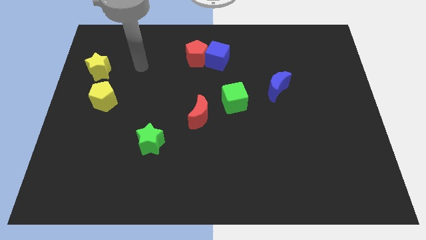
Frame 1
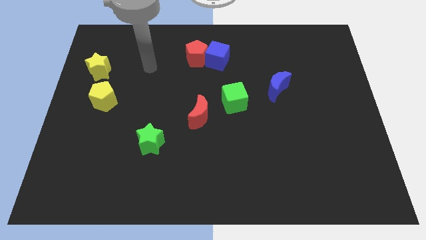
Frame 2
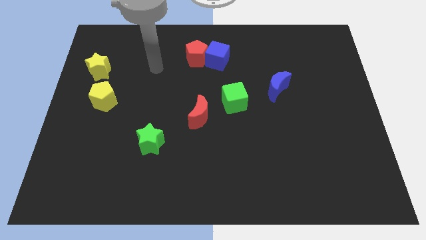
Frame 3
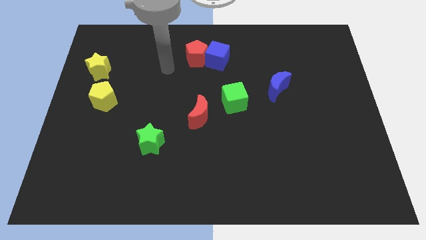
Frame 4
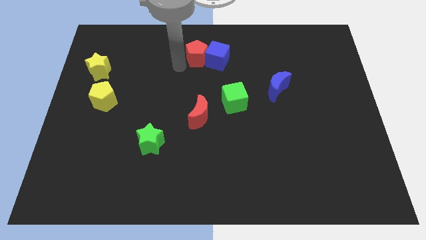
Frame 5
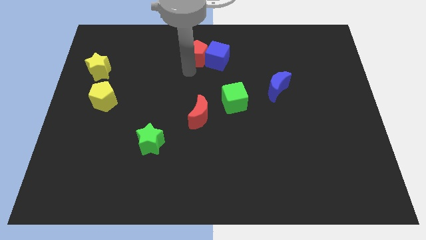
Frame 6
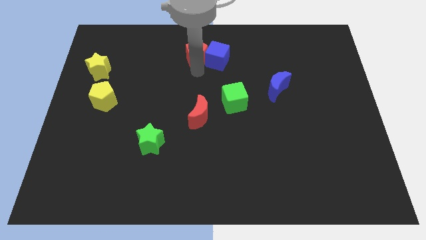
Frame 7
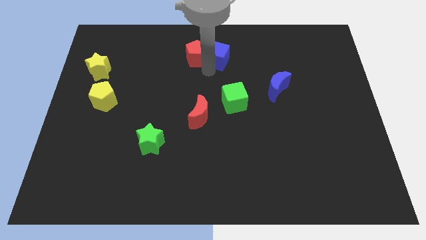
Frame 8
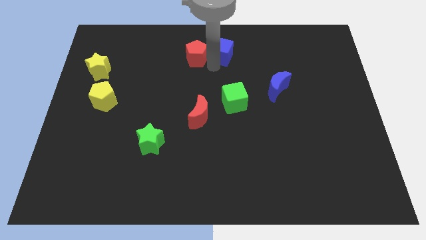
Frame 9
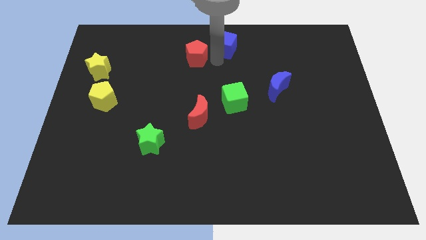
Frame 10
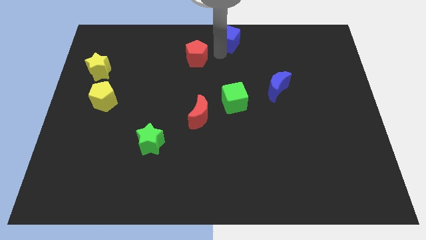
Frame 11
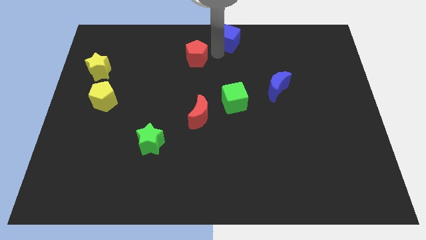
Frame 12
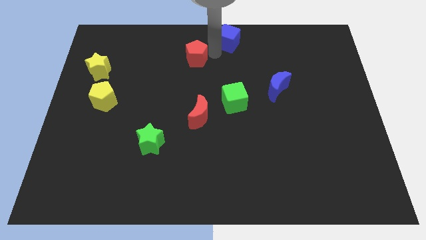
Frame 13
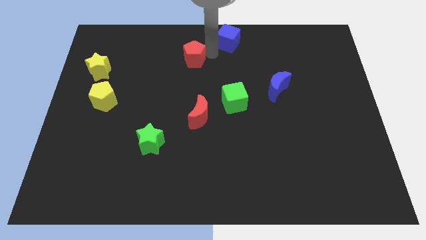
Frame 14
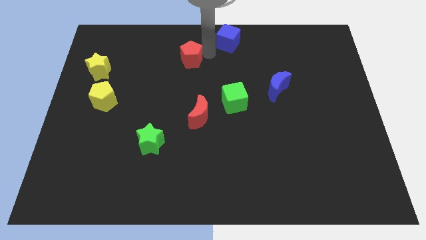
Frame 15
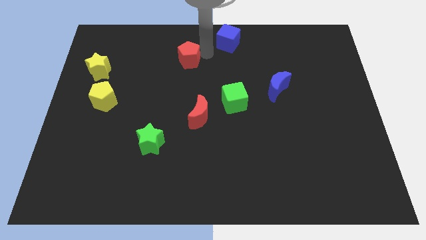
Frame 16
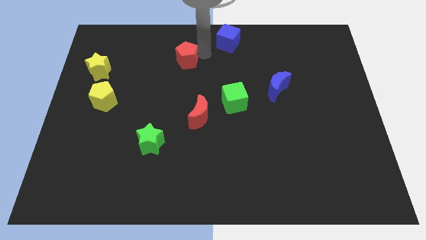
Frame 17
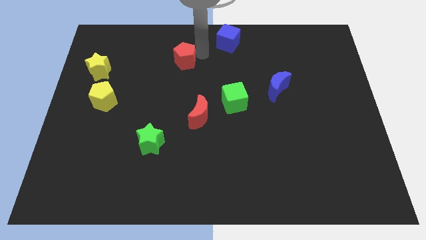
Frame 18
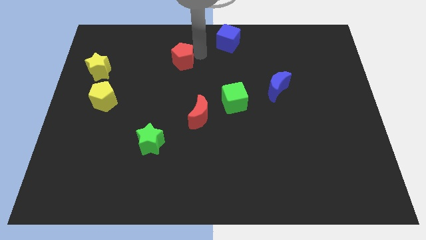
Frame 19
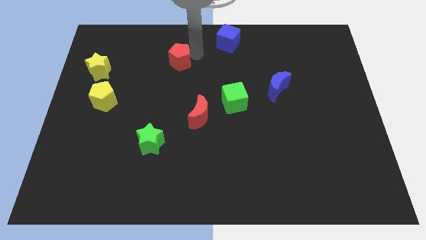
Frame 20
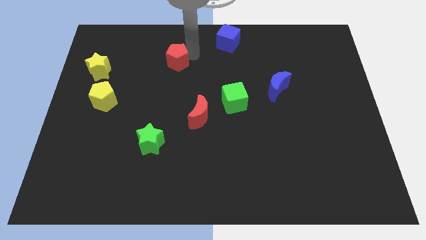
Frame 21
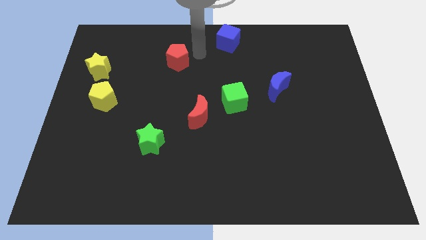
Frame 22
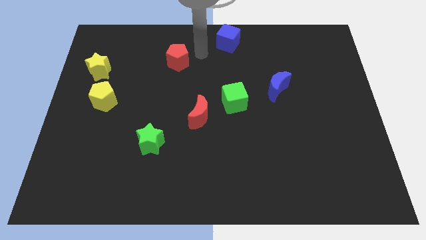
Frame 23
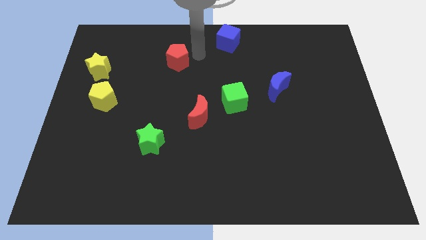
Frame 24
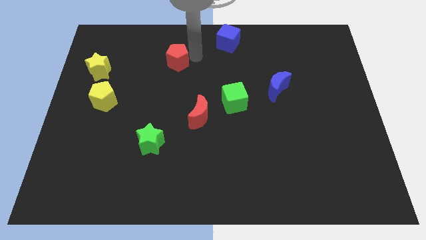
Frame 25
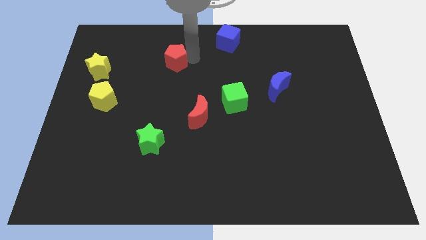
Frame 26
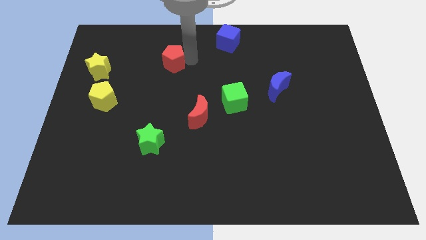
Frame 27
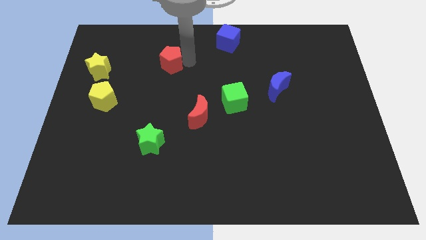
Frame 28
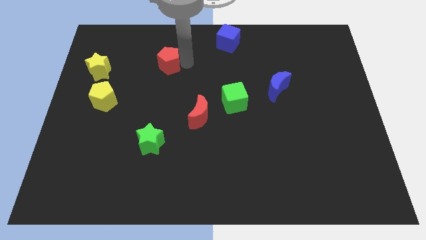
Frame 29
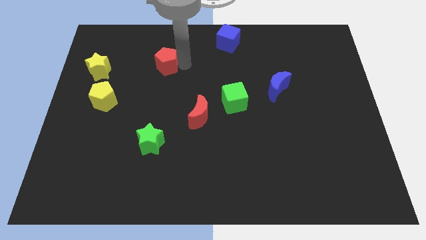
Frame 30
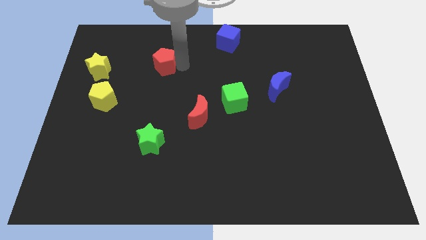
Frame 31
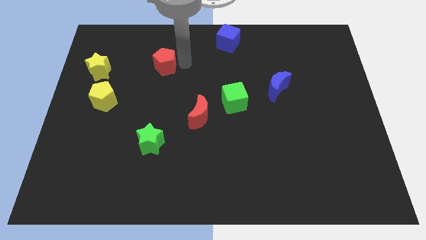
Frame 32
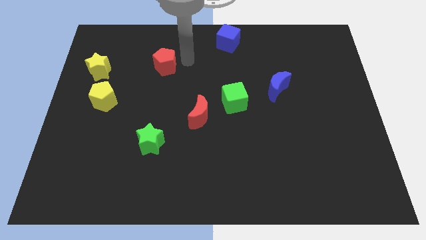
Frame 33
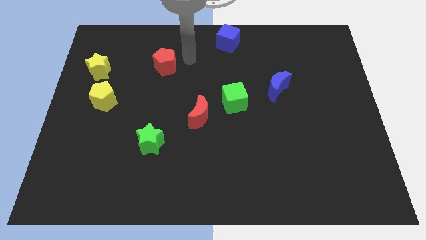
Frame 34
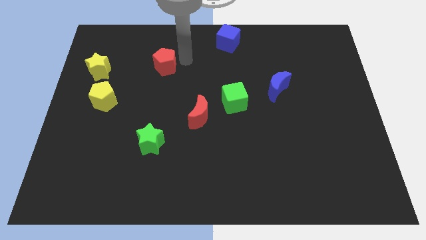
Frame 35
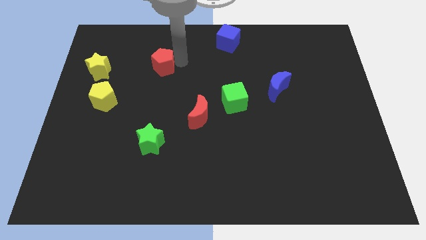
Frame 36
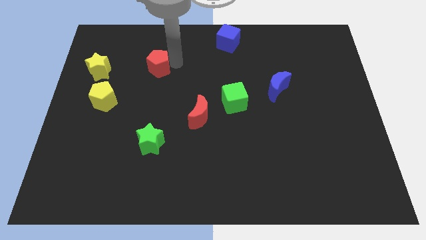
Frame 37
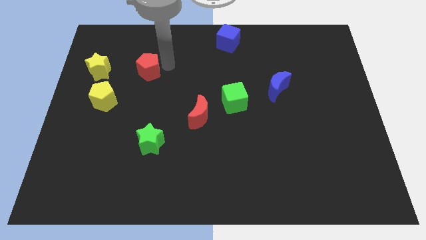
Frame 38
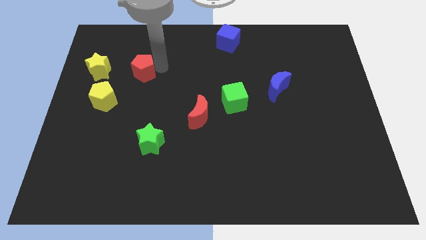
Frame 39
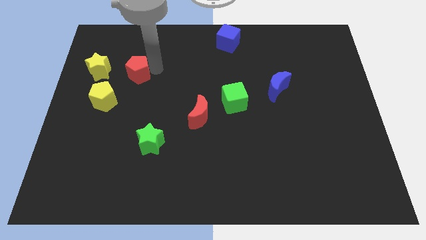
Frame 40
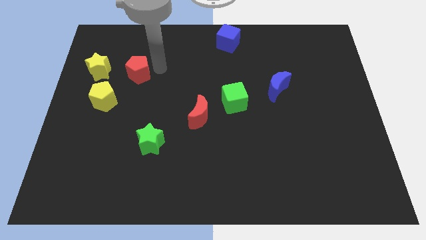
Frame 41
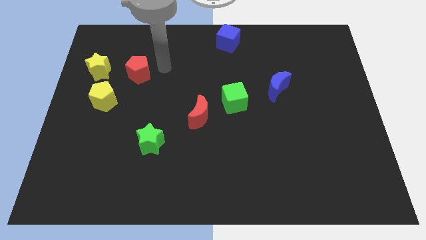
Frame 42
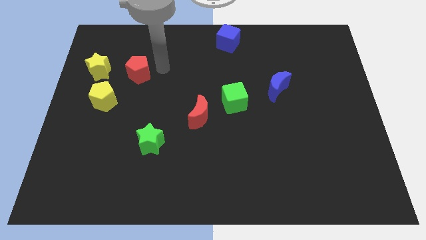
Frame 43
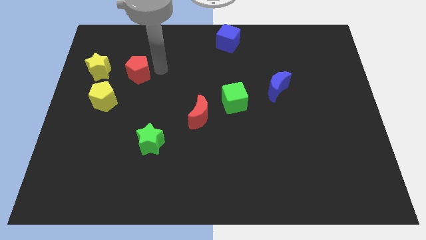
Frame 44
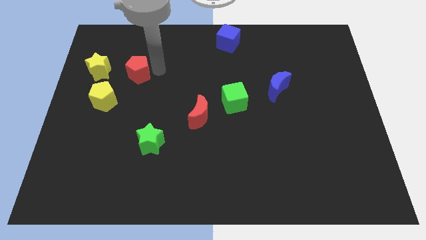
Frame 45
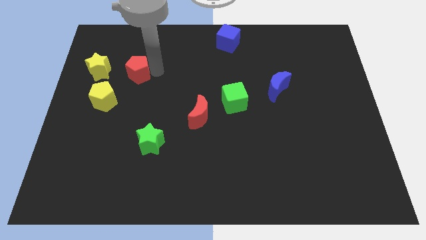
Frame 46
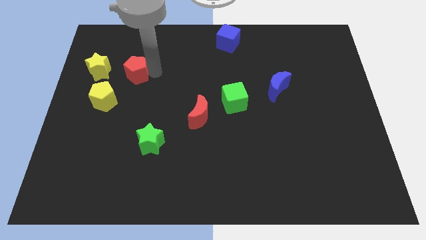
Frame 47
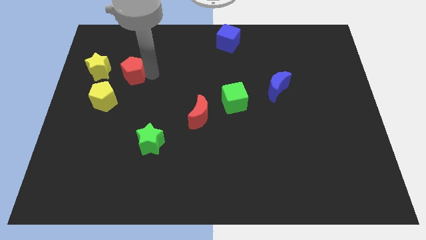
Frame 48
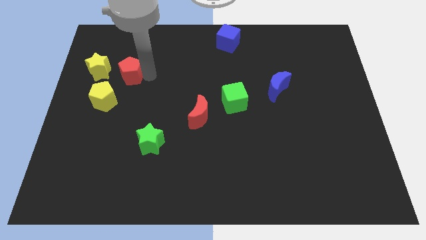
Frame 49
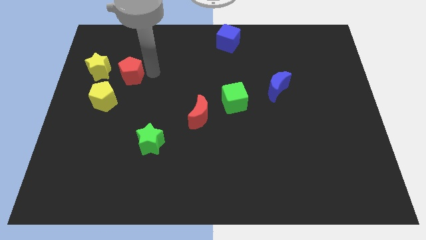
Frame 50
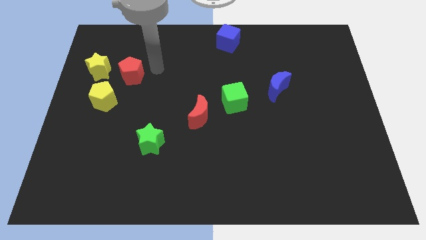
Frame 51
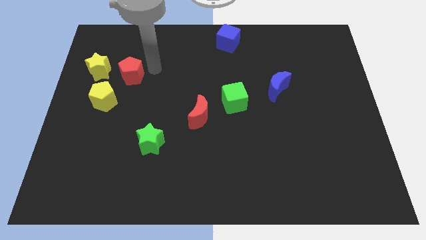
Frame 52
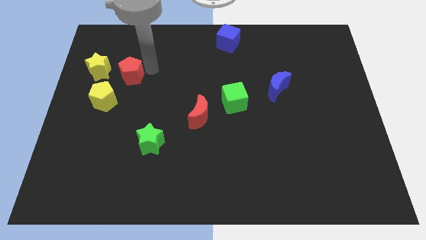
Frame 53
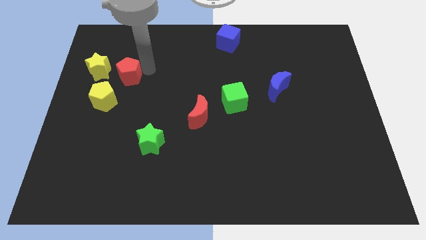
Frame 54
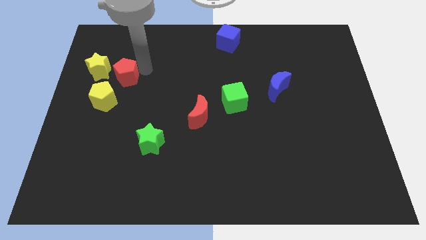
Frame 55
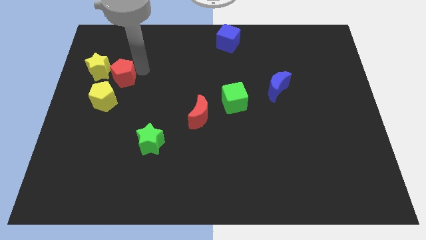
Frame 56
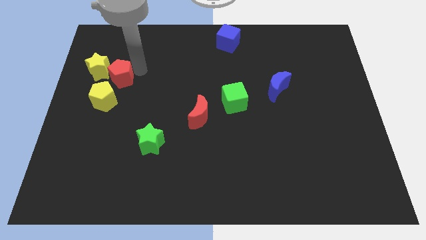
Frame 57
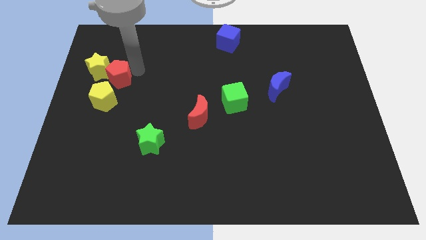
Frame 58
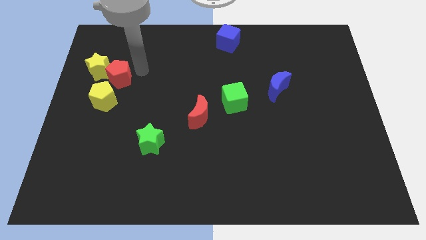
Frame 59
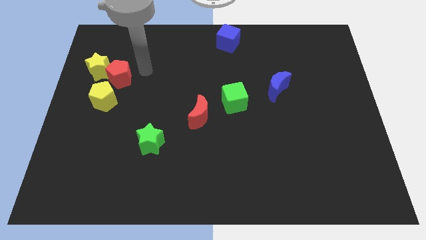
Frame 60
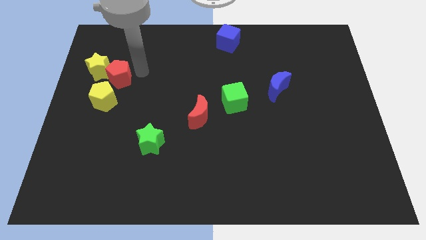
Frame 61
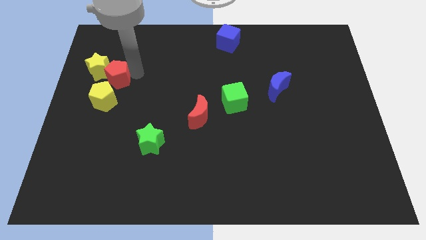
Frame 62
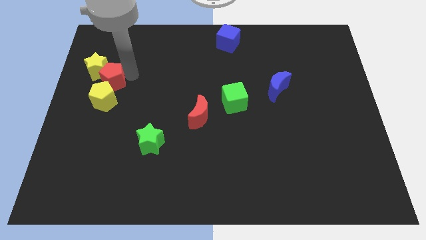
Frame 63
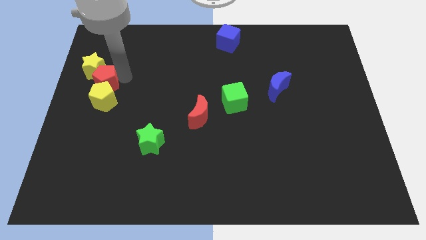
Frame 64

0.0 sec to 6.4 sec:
move the red pentagon to the center left
